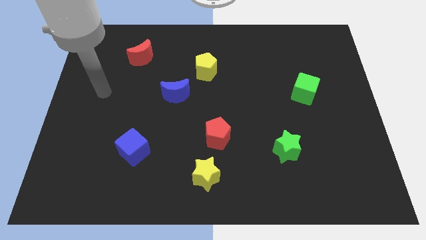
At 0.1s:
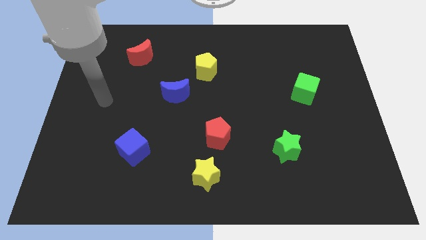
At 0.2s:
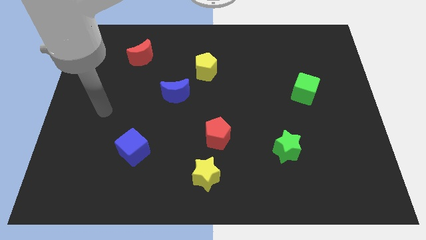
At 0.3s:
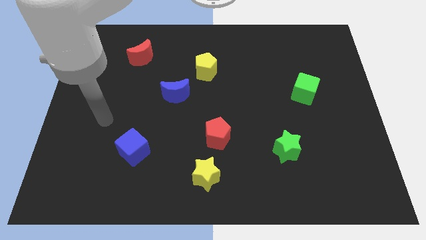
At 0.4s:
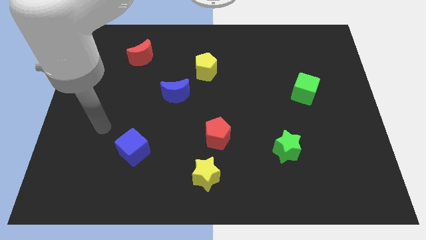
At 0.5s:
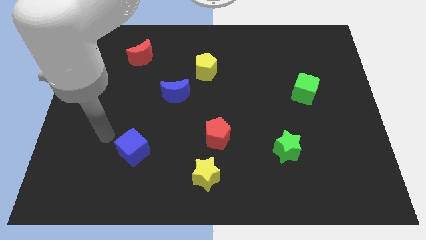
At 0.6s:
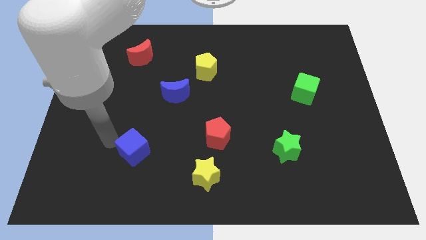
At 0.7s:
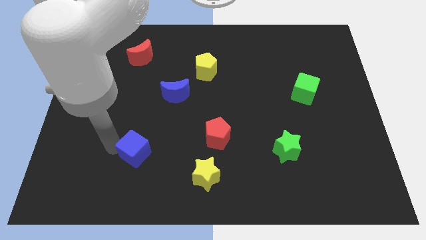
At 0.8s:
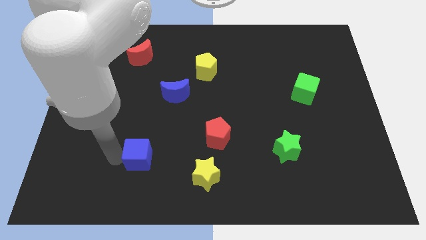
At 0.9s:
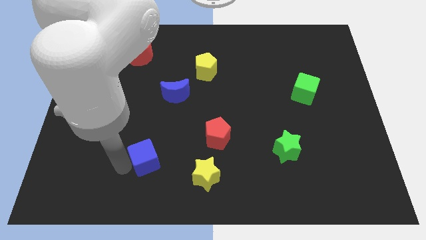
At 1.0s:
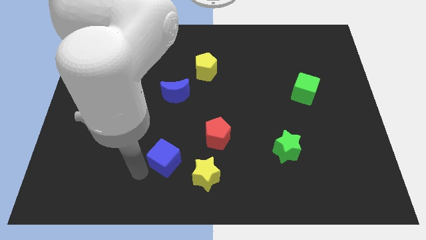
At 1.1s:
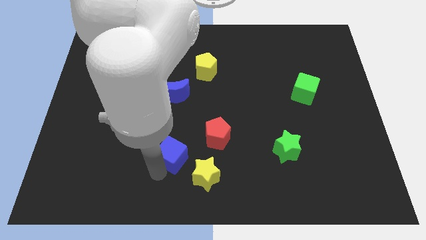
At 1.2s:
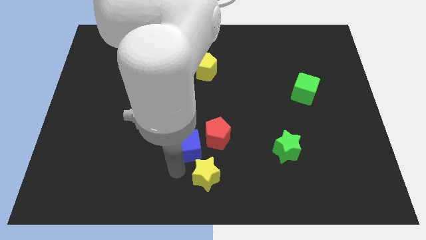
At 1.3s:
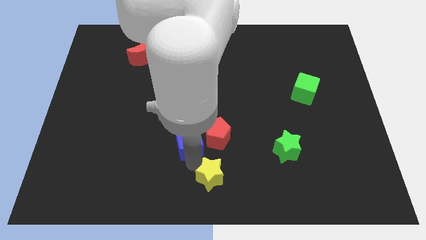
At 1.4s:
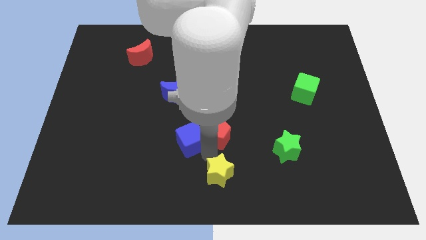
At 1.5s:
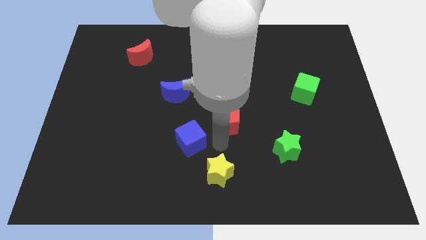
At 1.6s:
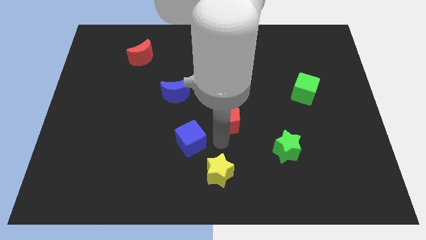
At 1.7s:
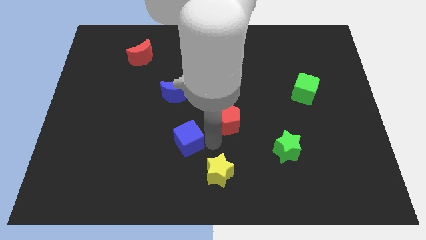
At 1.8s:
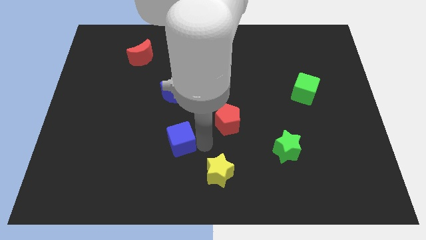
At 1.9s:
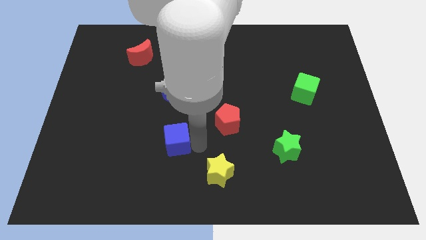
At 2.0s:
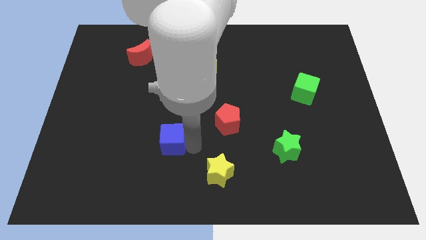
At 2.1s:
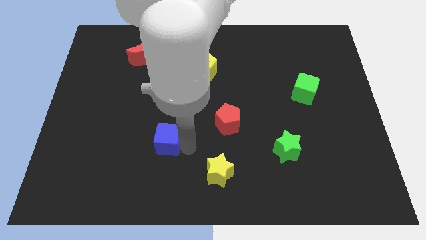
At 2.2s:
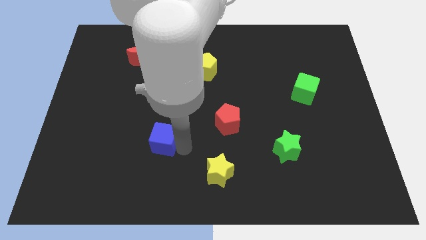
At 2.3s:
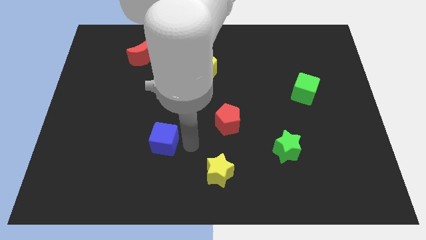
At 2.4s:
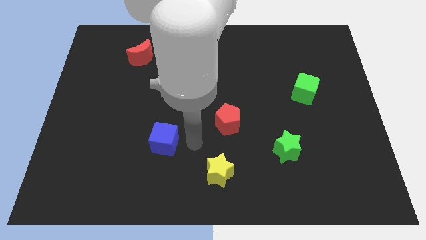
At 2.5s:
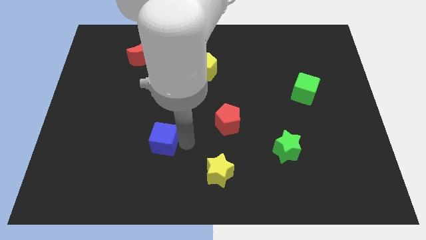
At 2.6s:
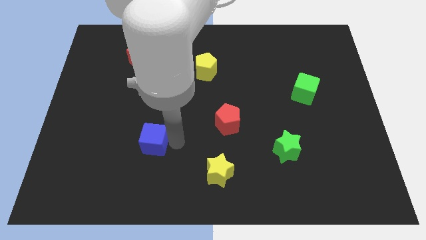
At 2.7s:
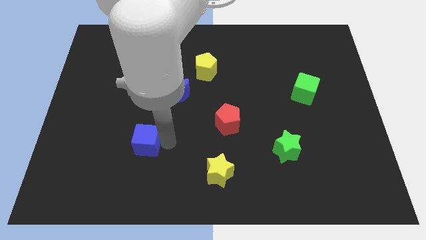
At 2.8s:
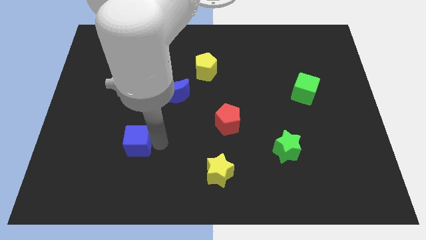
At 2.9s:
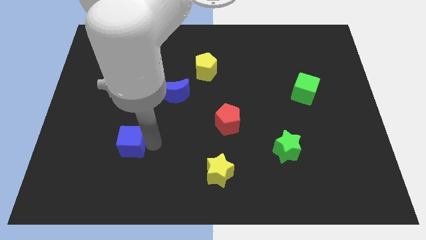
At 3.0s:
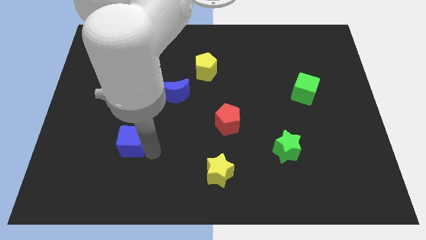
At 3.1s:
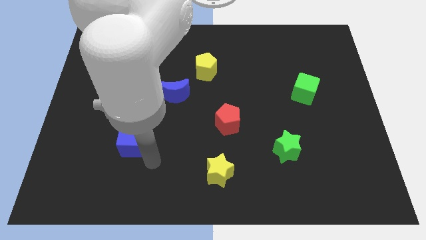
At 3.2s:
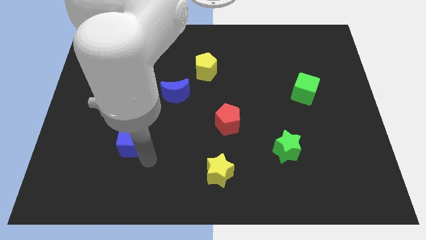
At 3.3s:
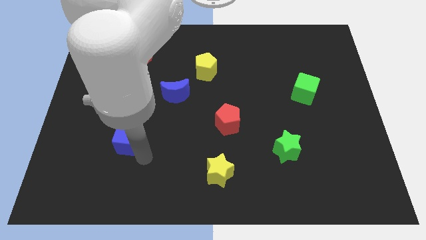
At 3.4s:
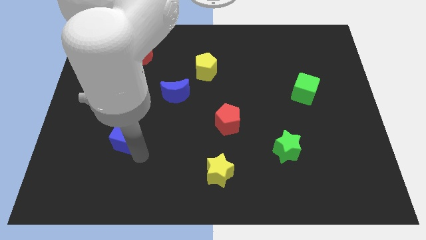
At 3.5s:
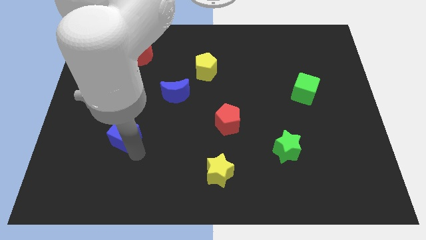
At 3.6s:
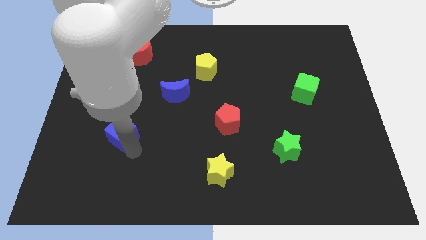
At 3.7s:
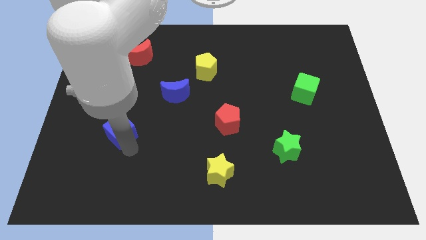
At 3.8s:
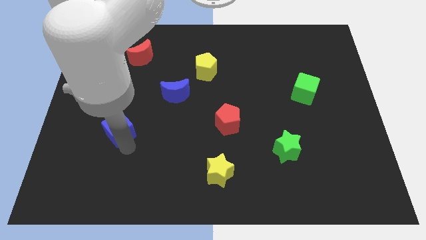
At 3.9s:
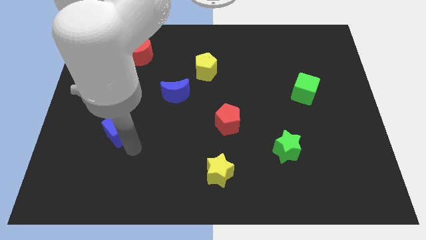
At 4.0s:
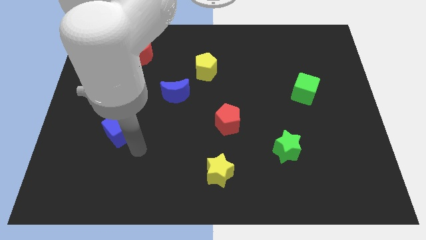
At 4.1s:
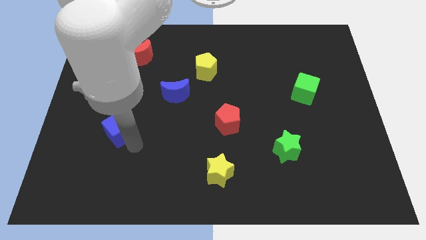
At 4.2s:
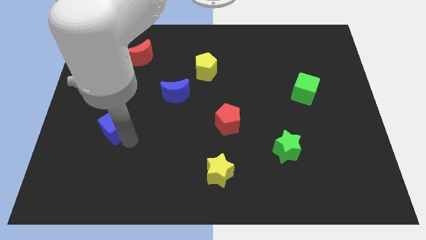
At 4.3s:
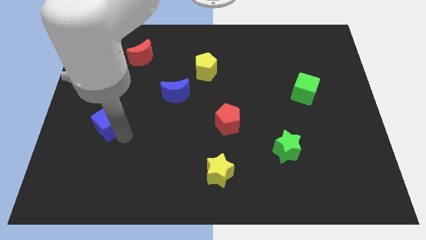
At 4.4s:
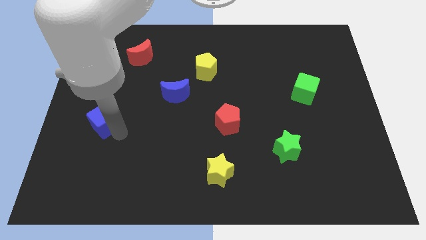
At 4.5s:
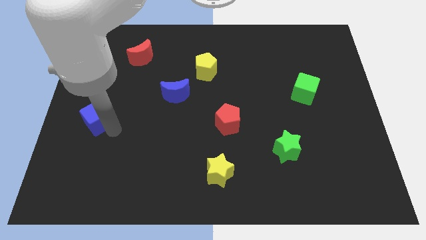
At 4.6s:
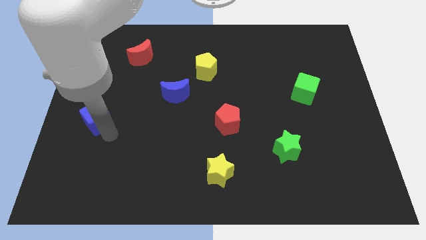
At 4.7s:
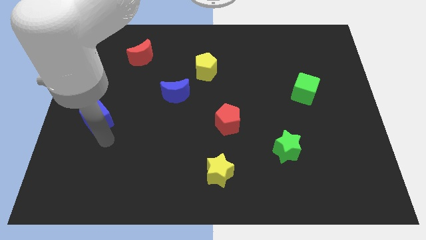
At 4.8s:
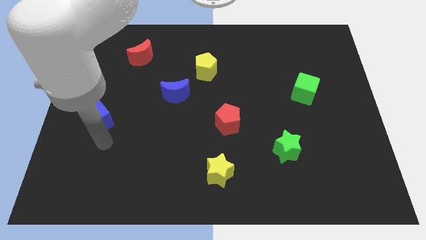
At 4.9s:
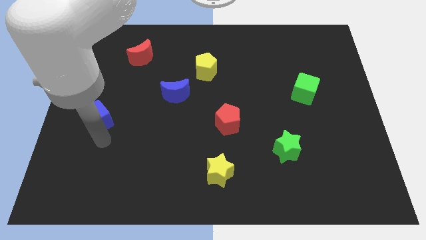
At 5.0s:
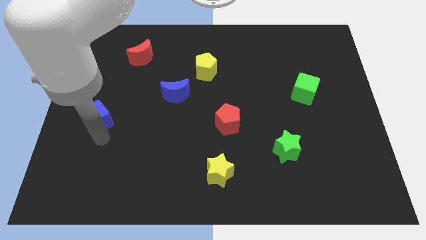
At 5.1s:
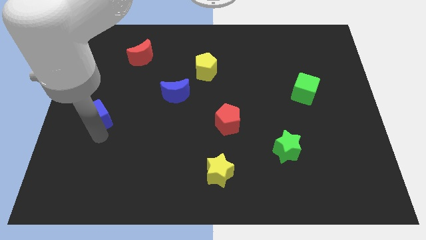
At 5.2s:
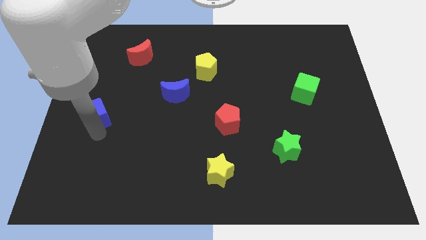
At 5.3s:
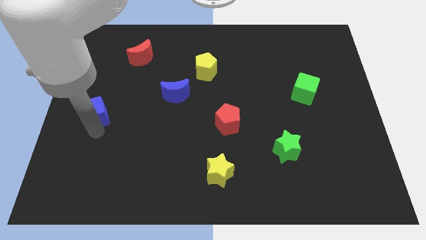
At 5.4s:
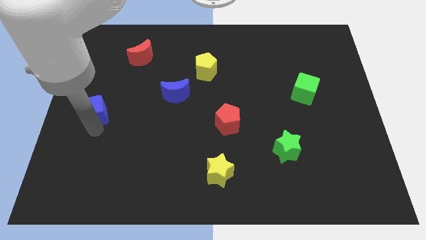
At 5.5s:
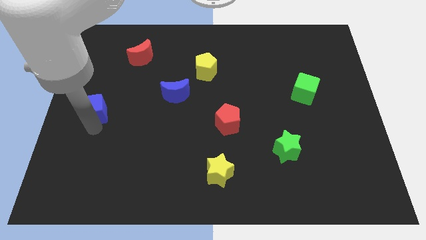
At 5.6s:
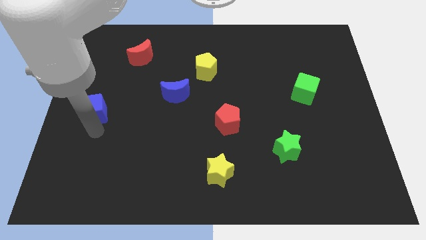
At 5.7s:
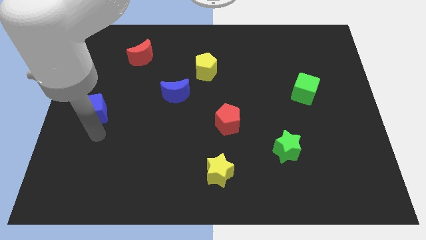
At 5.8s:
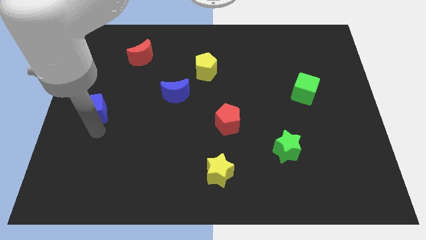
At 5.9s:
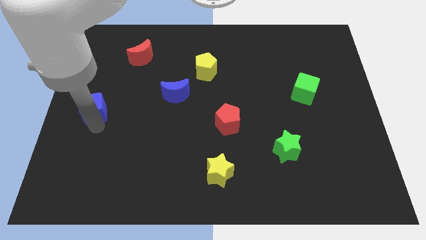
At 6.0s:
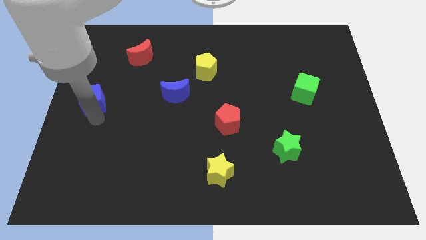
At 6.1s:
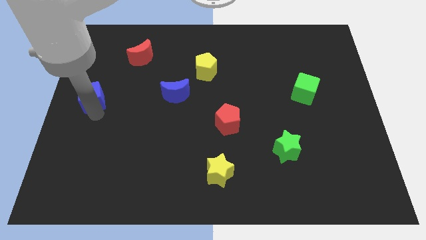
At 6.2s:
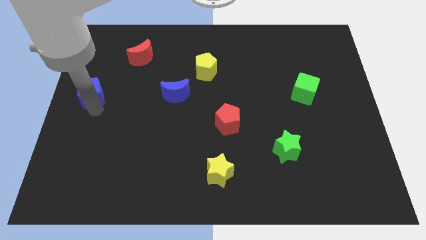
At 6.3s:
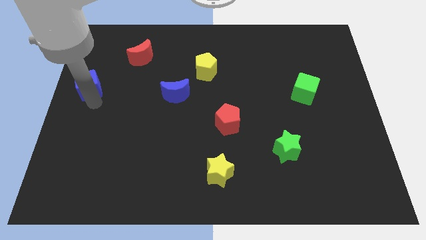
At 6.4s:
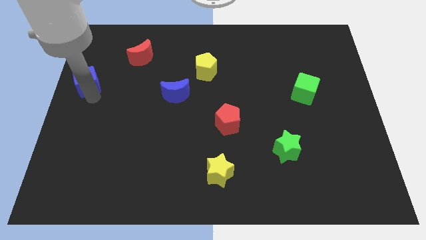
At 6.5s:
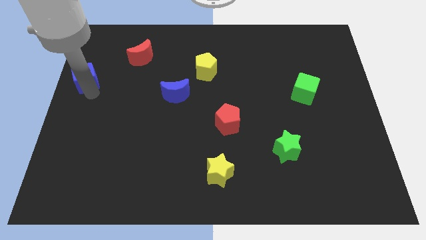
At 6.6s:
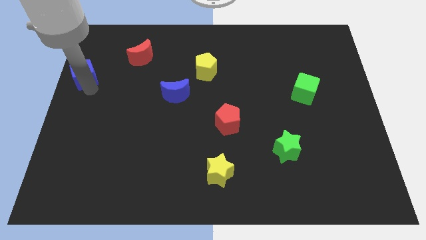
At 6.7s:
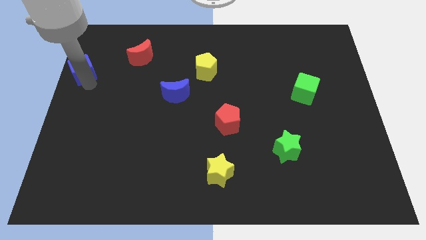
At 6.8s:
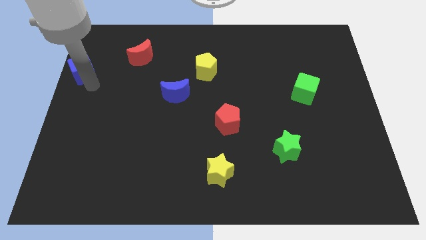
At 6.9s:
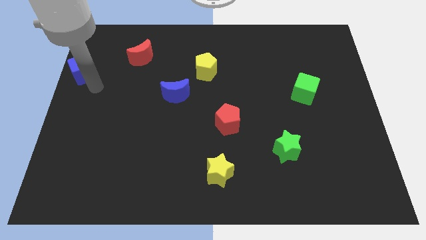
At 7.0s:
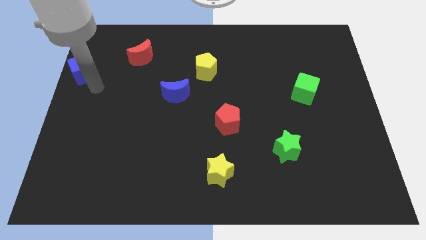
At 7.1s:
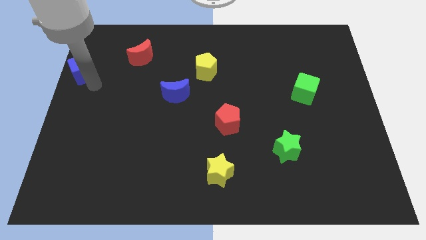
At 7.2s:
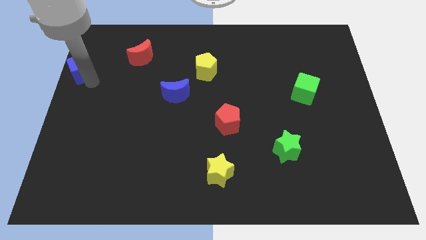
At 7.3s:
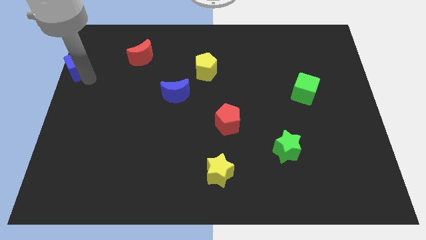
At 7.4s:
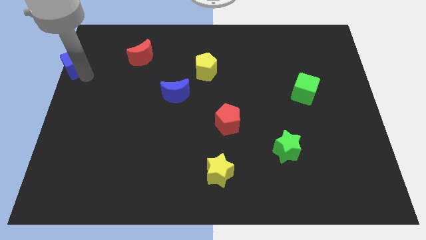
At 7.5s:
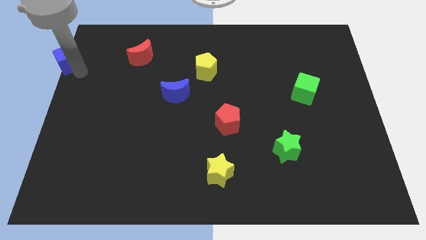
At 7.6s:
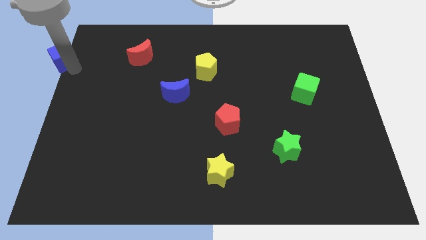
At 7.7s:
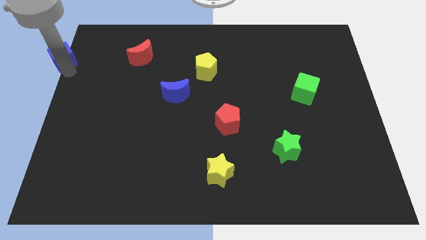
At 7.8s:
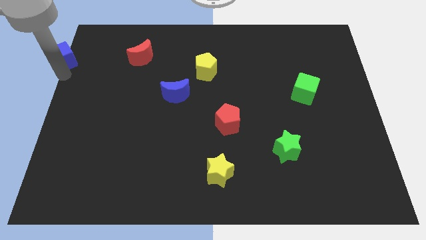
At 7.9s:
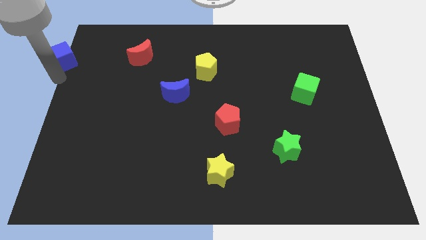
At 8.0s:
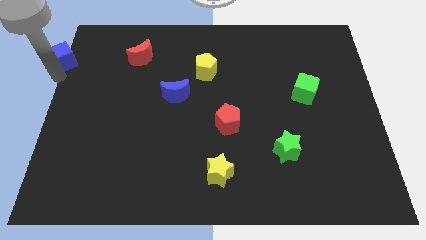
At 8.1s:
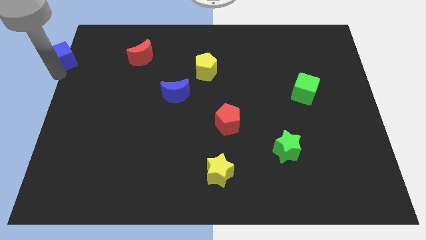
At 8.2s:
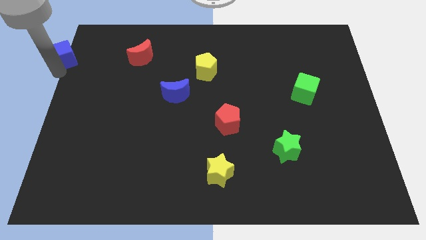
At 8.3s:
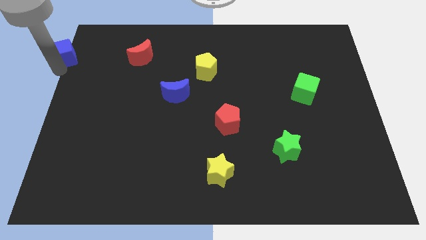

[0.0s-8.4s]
slide the blue cube to the top left corner
